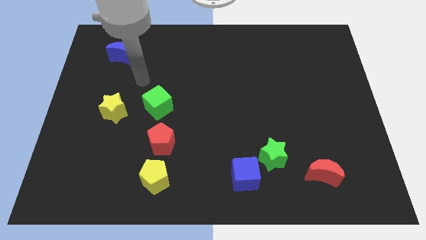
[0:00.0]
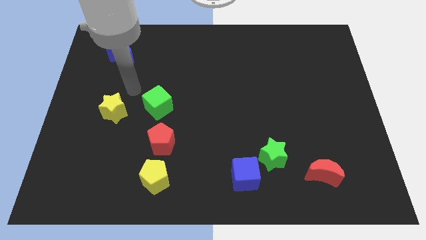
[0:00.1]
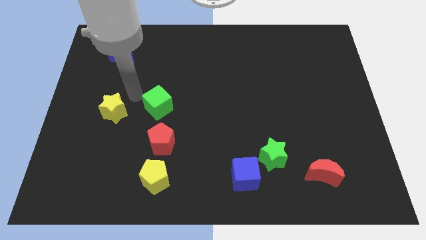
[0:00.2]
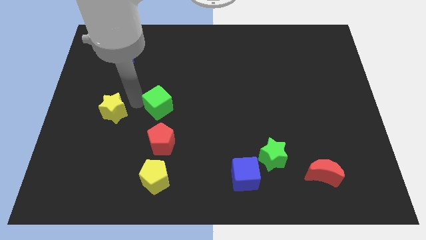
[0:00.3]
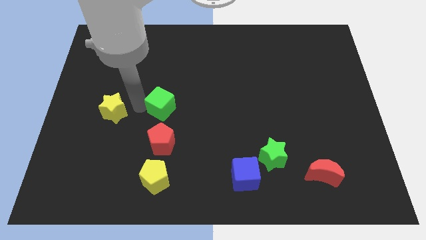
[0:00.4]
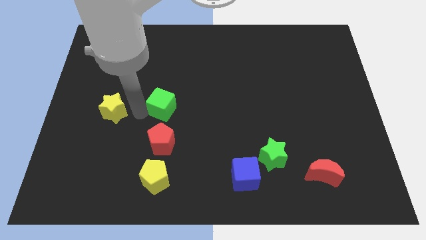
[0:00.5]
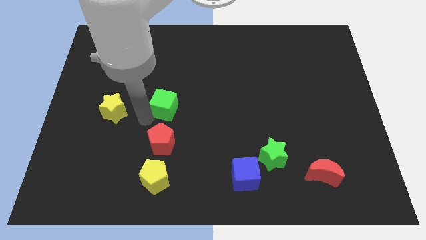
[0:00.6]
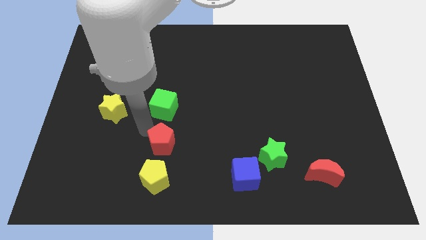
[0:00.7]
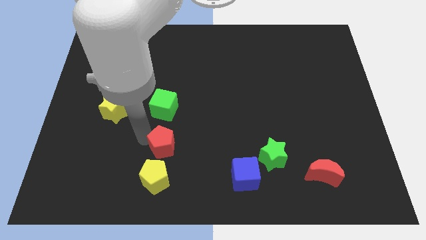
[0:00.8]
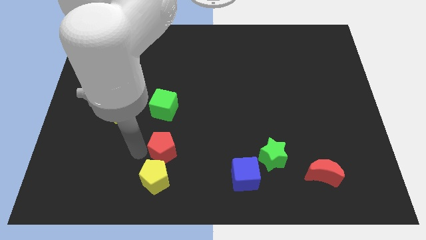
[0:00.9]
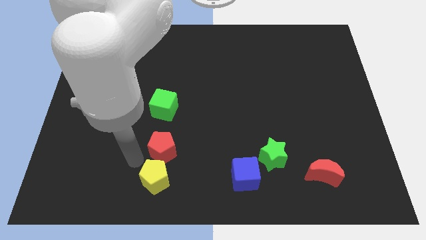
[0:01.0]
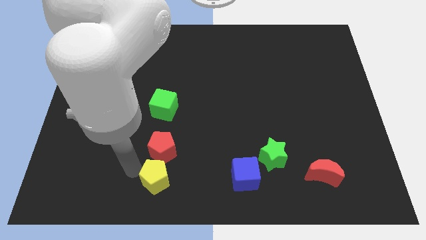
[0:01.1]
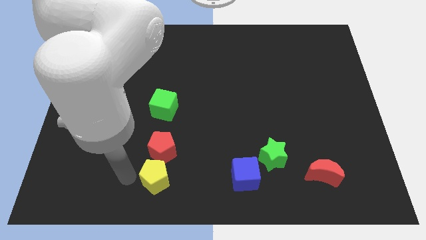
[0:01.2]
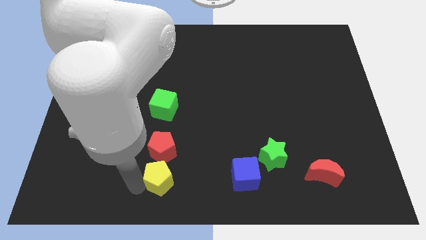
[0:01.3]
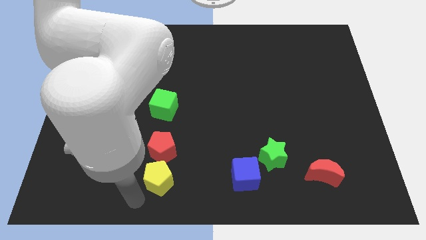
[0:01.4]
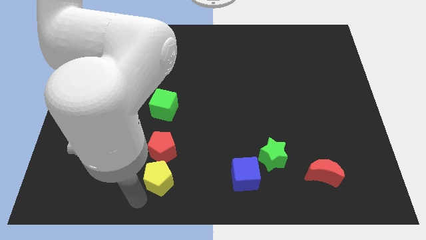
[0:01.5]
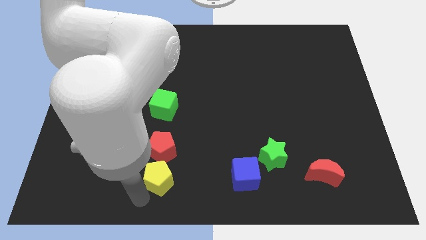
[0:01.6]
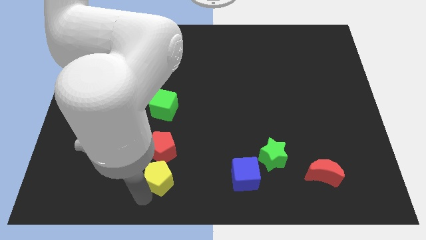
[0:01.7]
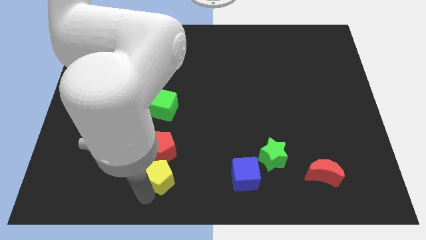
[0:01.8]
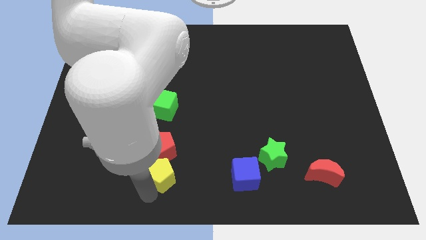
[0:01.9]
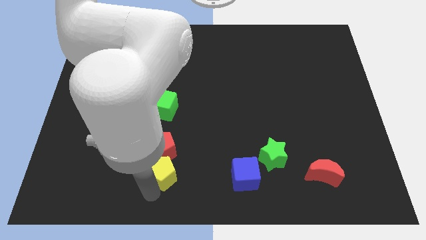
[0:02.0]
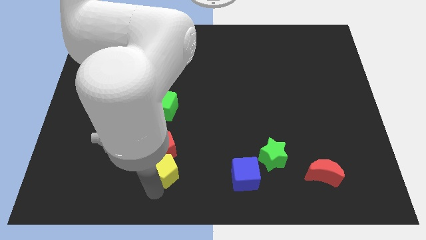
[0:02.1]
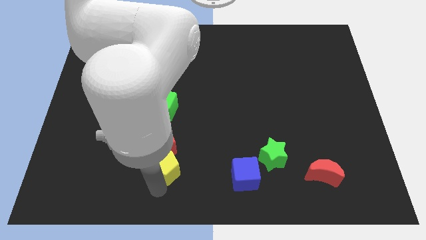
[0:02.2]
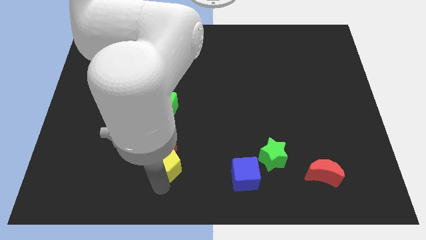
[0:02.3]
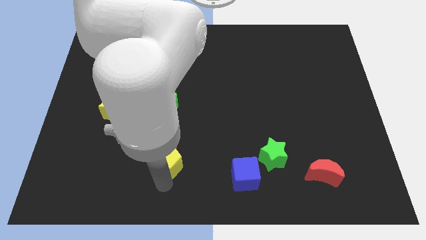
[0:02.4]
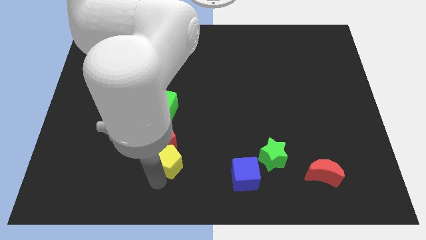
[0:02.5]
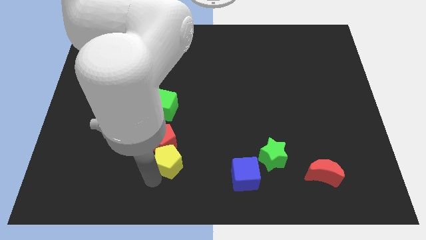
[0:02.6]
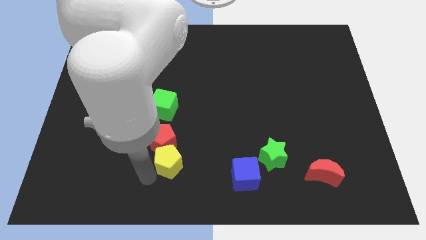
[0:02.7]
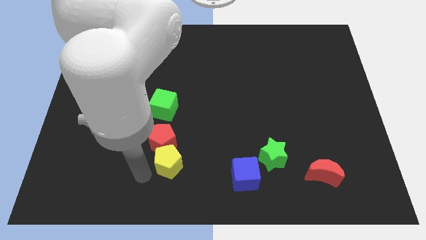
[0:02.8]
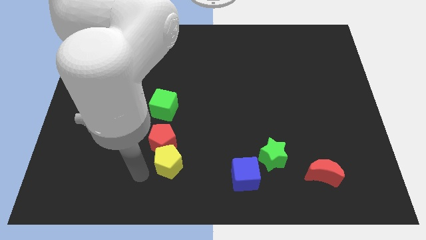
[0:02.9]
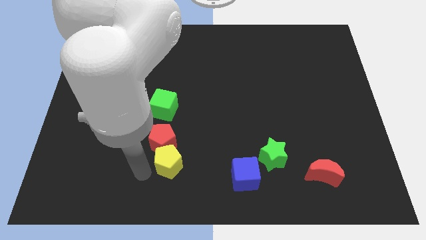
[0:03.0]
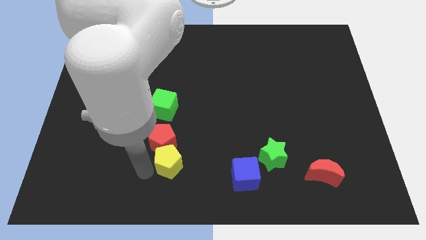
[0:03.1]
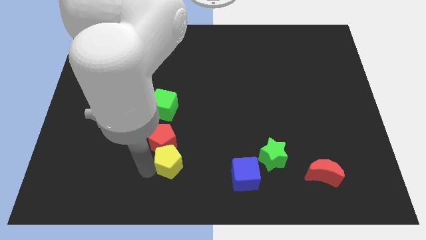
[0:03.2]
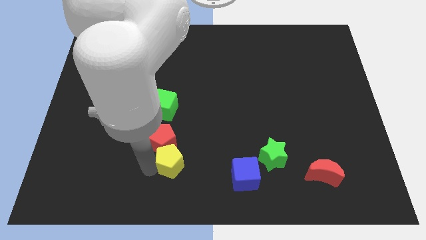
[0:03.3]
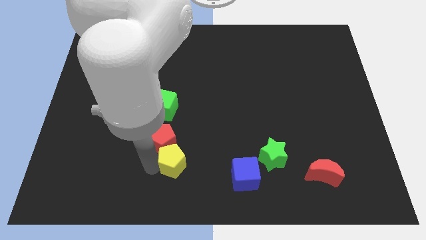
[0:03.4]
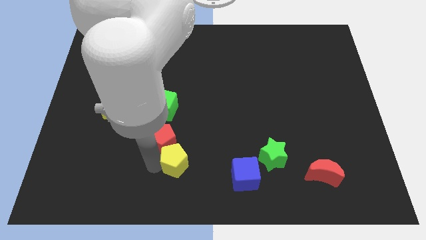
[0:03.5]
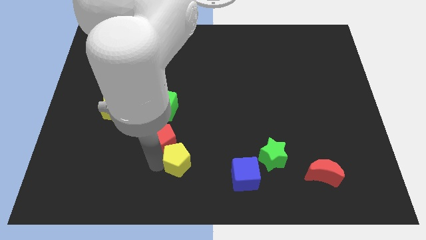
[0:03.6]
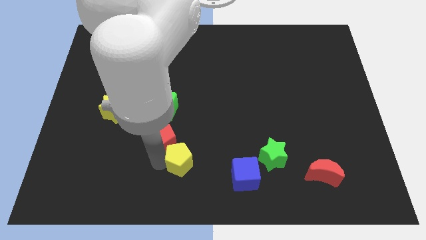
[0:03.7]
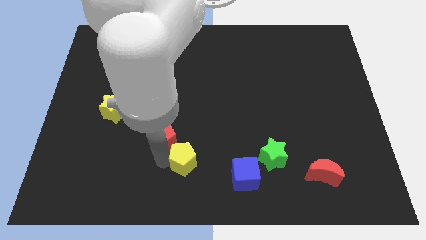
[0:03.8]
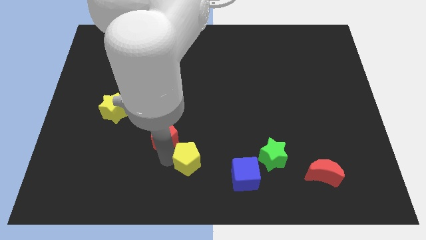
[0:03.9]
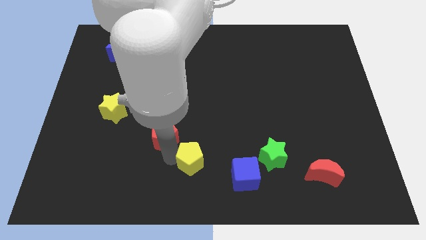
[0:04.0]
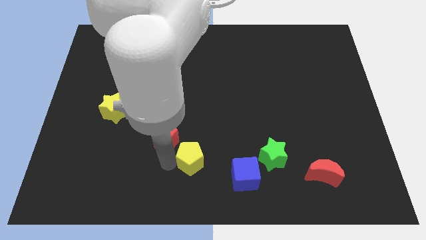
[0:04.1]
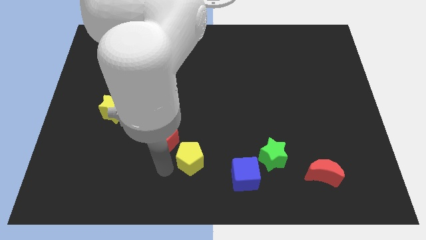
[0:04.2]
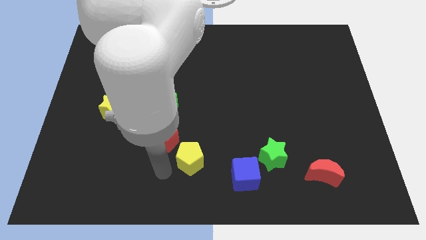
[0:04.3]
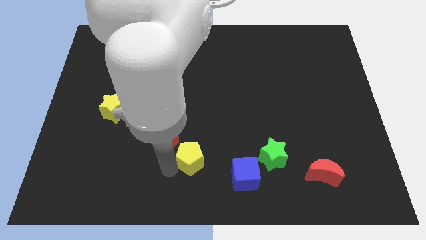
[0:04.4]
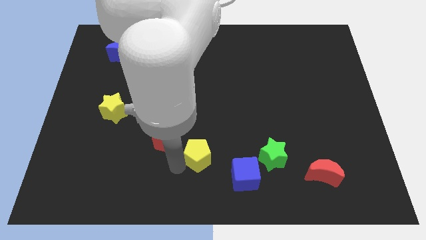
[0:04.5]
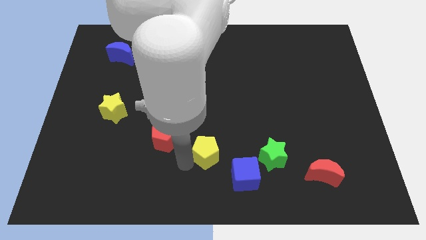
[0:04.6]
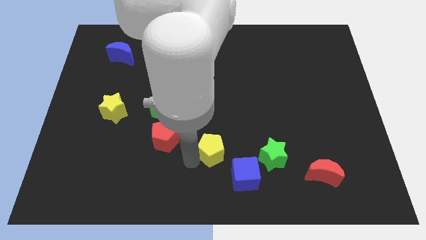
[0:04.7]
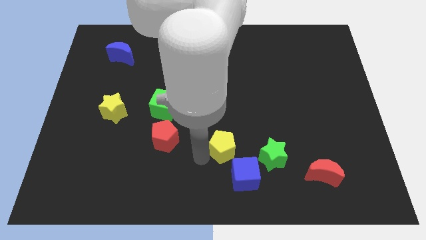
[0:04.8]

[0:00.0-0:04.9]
put the yellow pentagon above the blue cube

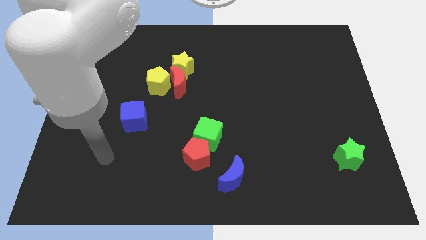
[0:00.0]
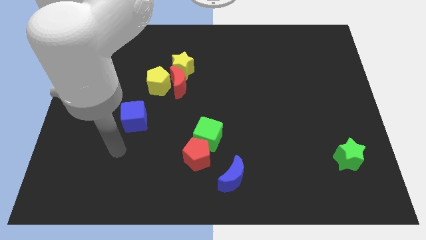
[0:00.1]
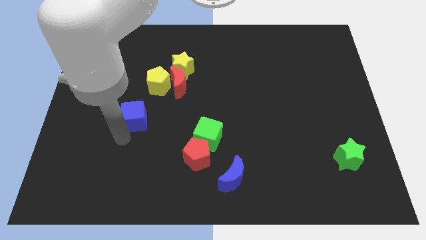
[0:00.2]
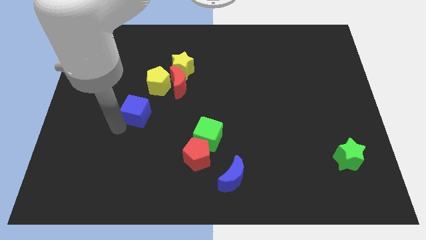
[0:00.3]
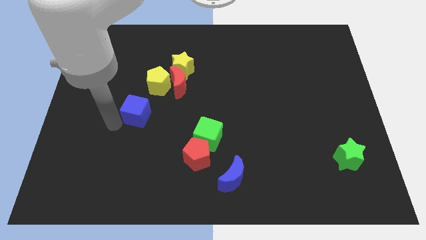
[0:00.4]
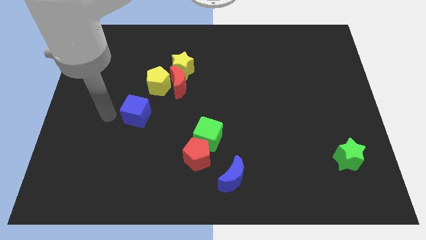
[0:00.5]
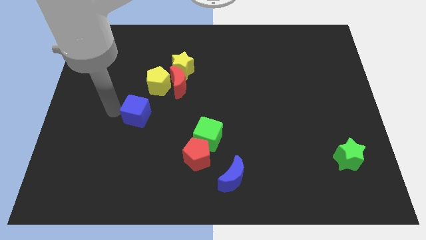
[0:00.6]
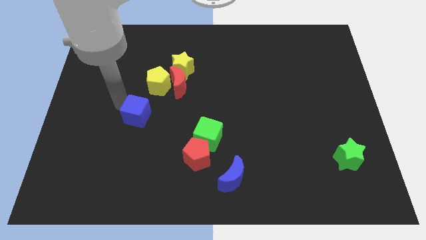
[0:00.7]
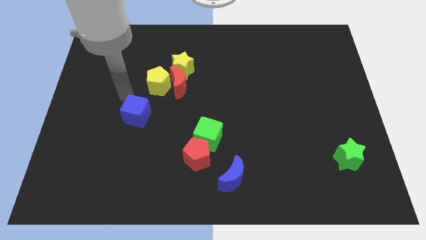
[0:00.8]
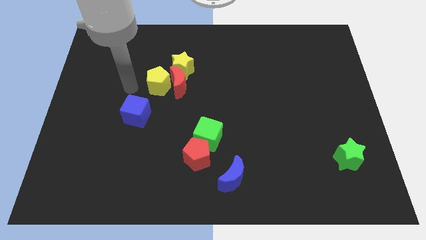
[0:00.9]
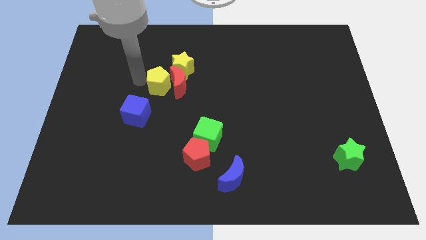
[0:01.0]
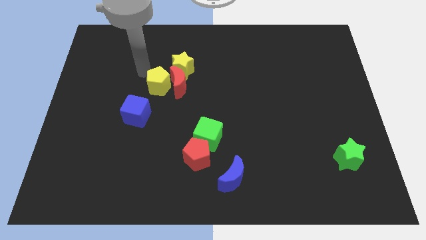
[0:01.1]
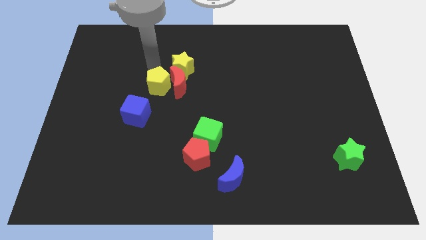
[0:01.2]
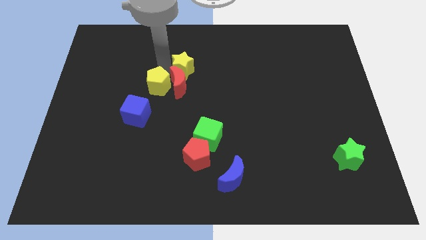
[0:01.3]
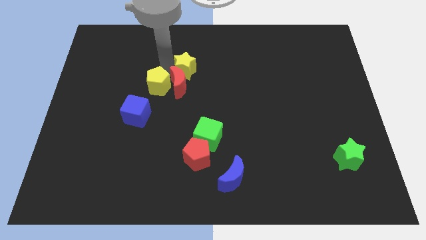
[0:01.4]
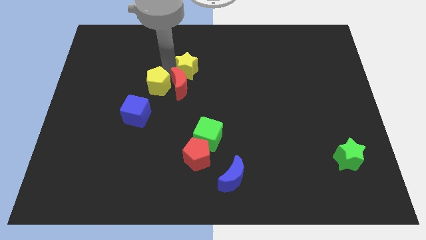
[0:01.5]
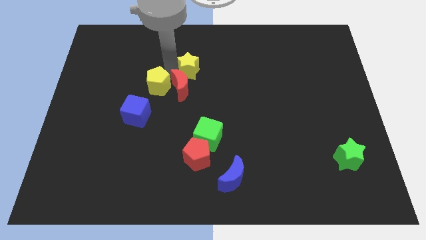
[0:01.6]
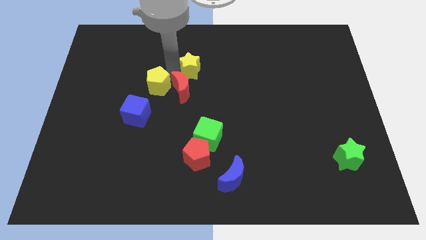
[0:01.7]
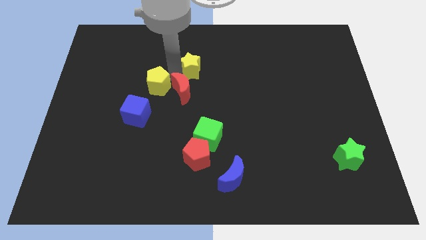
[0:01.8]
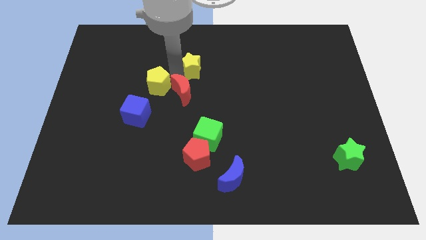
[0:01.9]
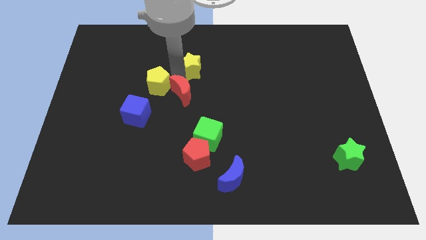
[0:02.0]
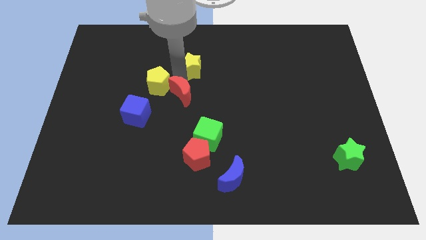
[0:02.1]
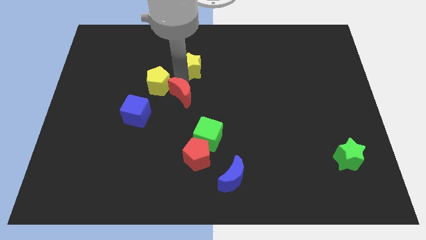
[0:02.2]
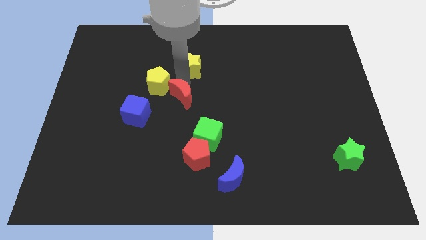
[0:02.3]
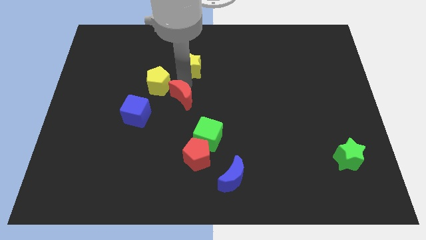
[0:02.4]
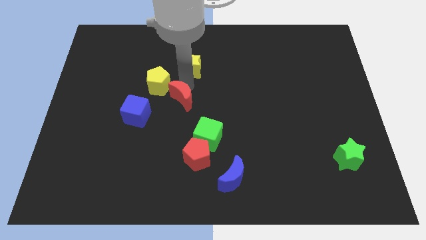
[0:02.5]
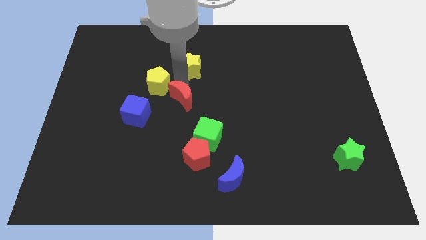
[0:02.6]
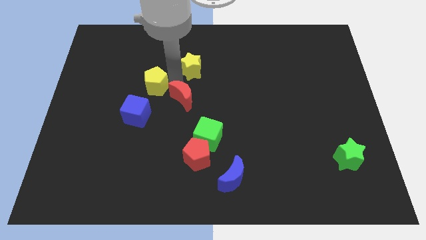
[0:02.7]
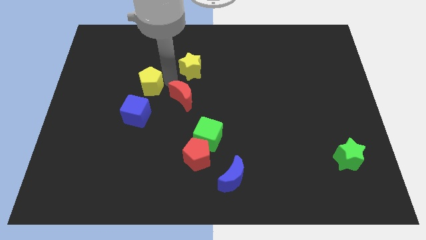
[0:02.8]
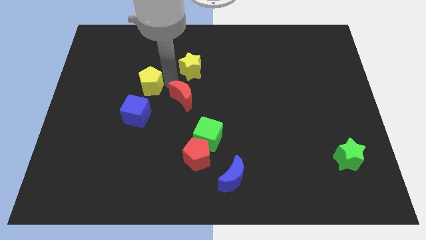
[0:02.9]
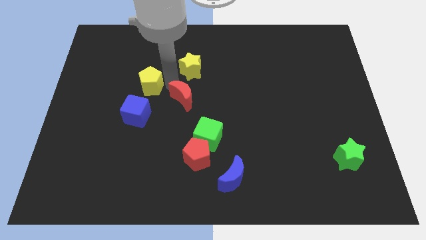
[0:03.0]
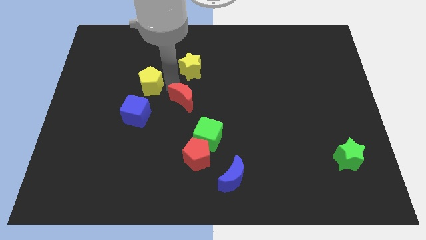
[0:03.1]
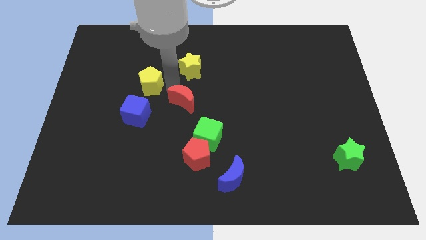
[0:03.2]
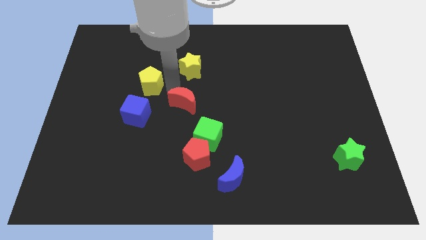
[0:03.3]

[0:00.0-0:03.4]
put the red moon to the top side of the red pentagon
